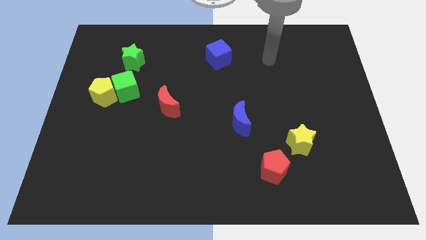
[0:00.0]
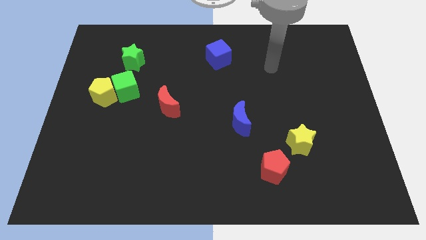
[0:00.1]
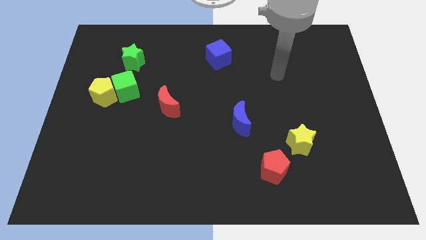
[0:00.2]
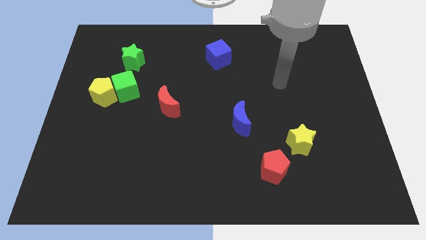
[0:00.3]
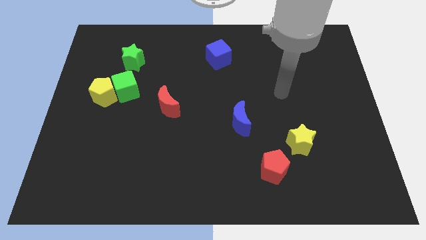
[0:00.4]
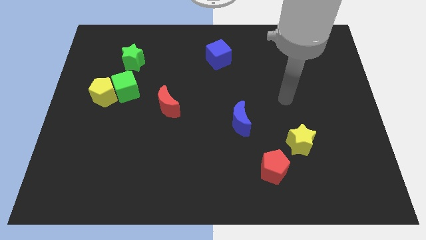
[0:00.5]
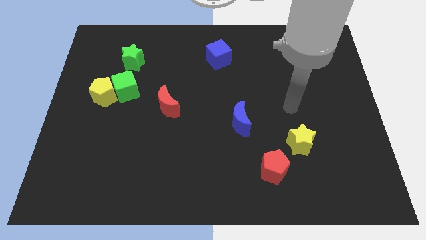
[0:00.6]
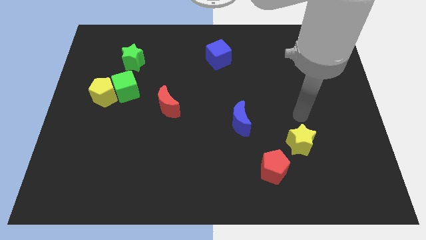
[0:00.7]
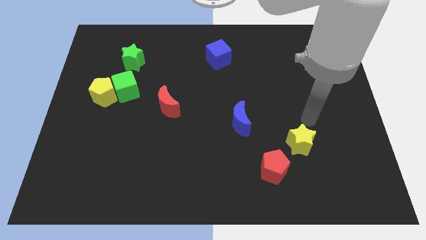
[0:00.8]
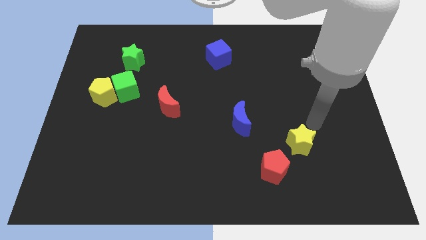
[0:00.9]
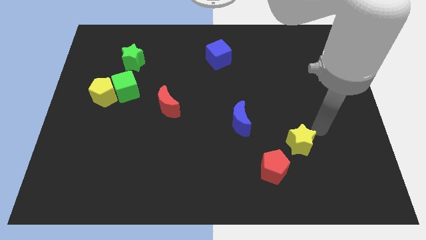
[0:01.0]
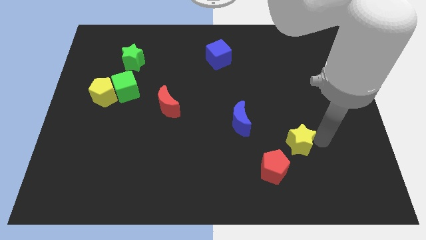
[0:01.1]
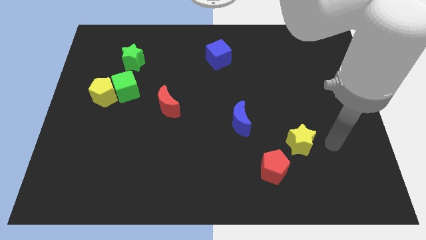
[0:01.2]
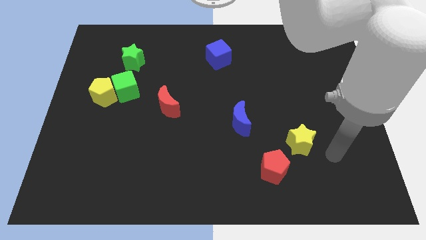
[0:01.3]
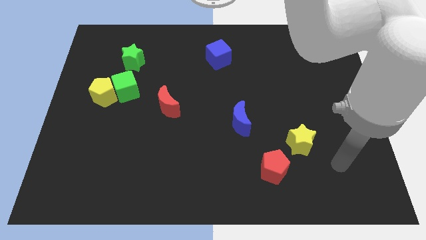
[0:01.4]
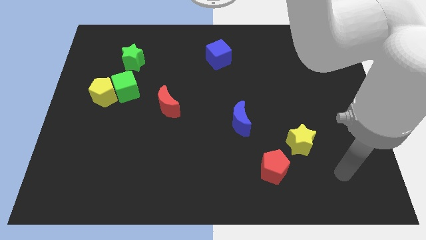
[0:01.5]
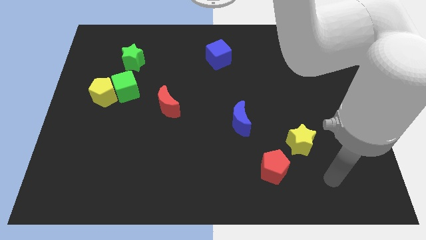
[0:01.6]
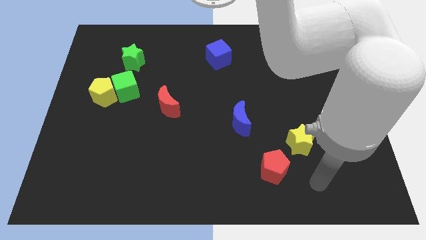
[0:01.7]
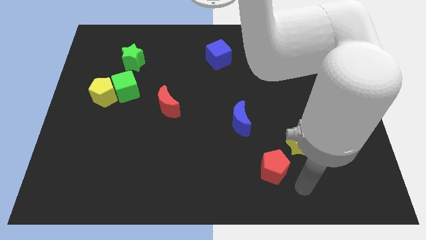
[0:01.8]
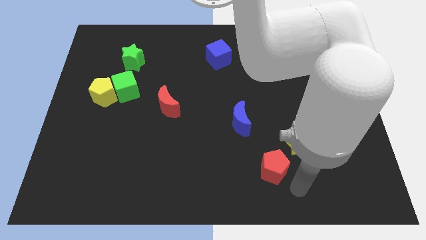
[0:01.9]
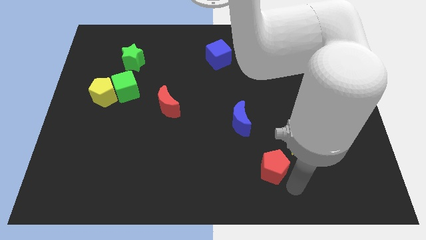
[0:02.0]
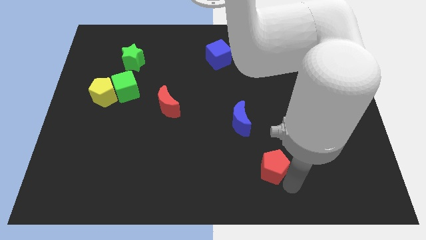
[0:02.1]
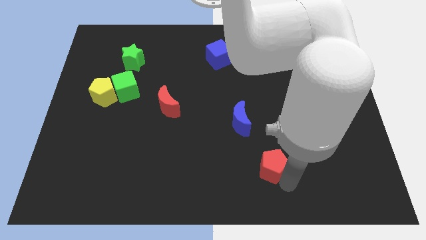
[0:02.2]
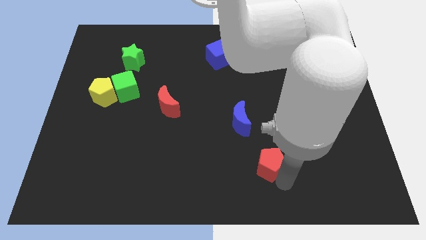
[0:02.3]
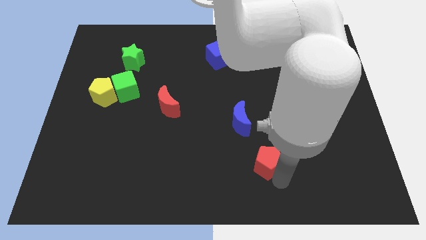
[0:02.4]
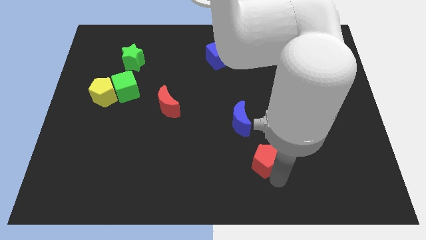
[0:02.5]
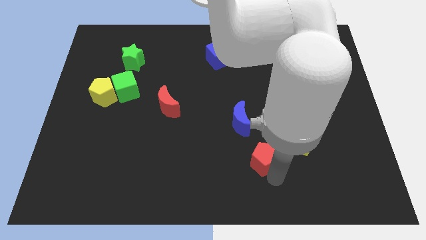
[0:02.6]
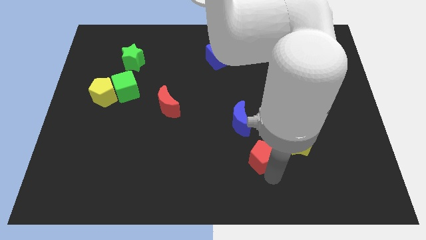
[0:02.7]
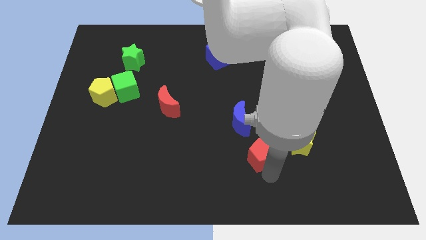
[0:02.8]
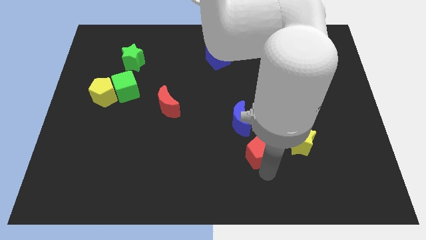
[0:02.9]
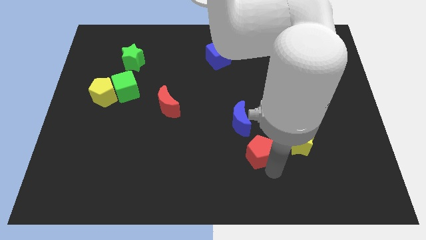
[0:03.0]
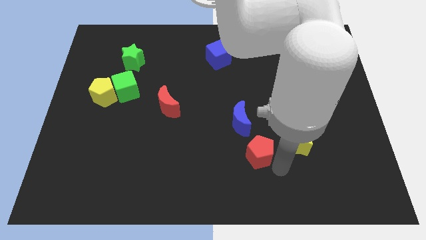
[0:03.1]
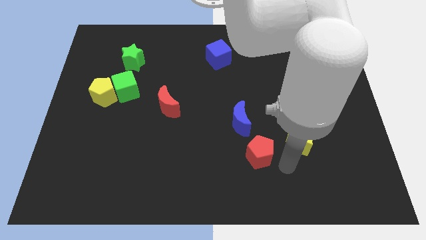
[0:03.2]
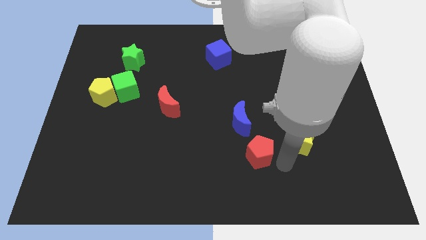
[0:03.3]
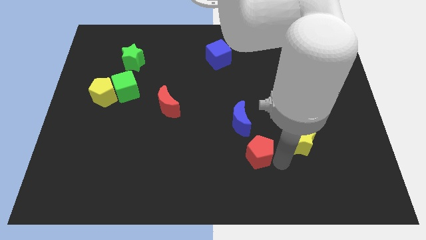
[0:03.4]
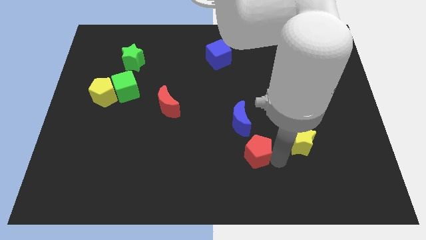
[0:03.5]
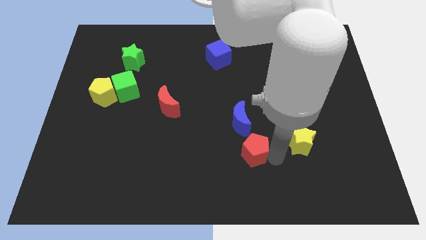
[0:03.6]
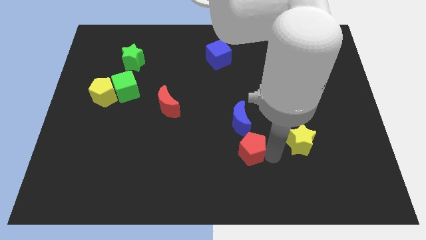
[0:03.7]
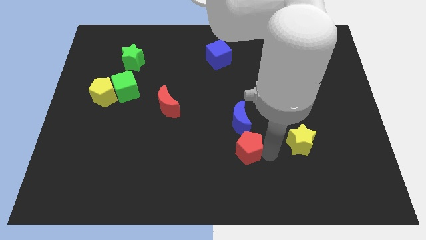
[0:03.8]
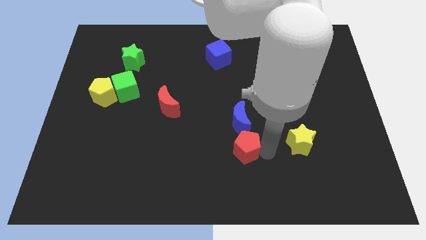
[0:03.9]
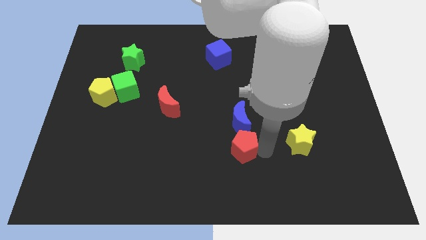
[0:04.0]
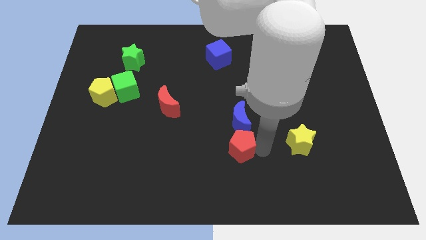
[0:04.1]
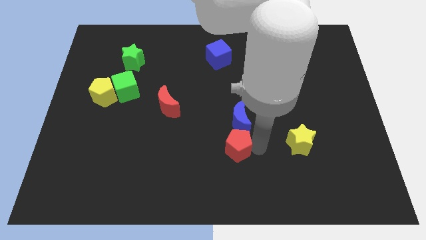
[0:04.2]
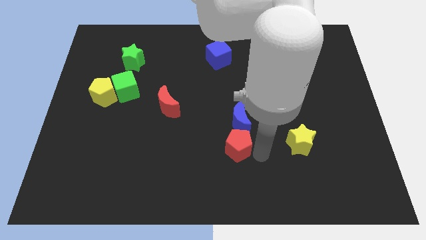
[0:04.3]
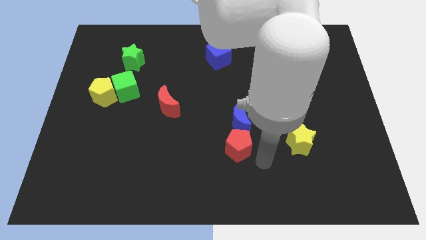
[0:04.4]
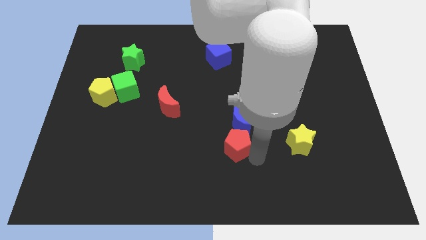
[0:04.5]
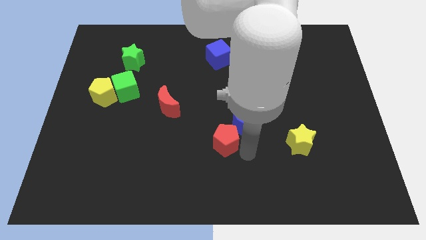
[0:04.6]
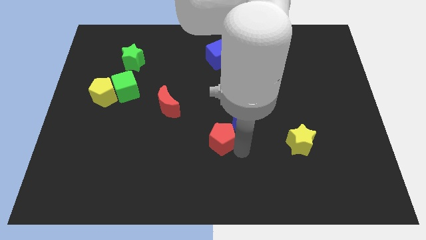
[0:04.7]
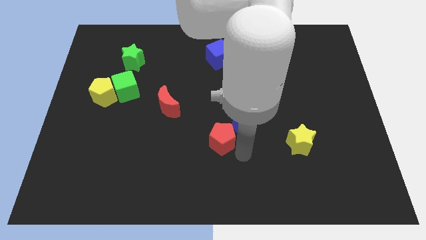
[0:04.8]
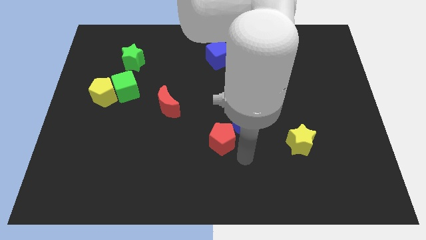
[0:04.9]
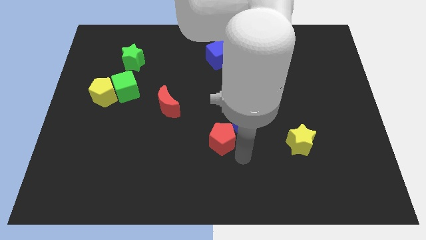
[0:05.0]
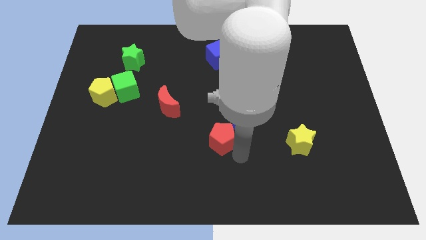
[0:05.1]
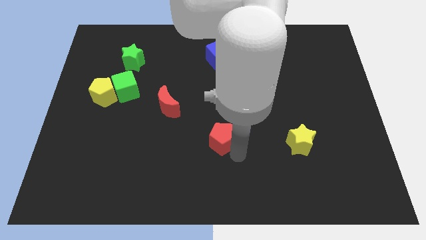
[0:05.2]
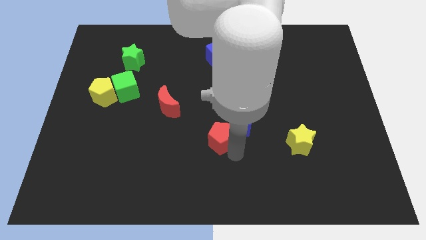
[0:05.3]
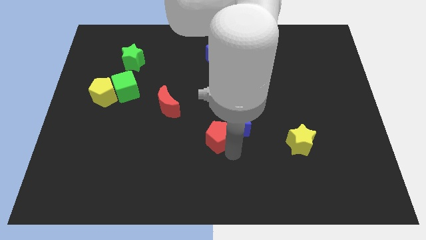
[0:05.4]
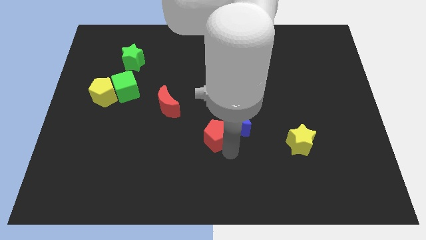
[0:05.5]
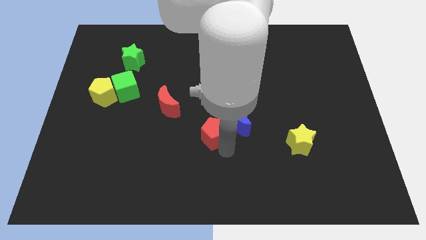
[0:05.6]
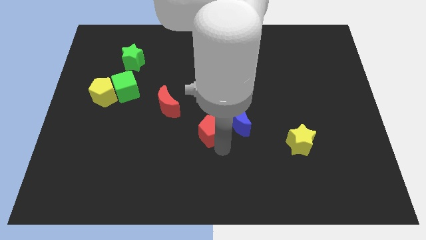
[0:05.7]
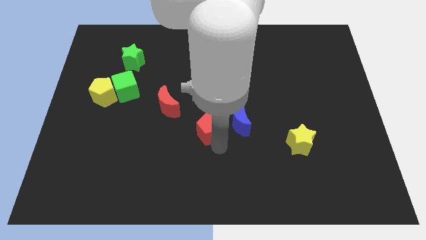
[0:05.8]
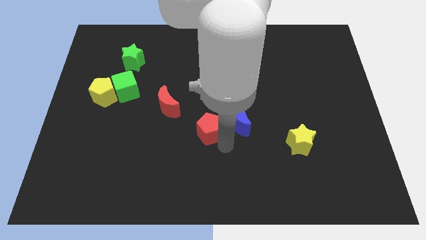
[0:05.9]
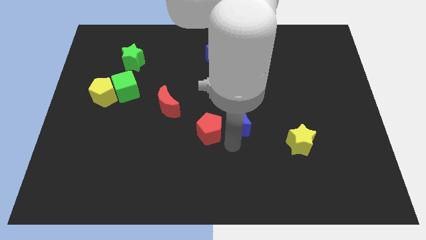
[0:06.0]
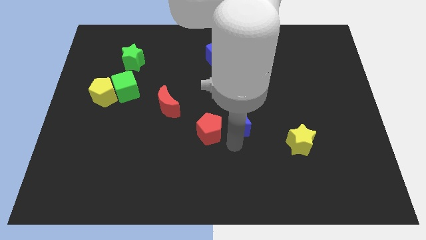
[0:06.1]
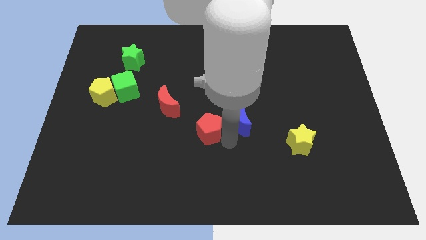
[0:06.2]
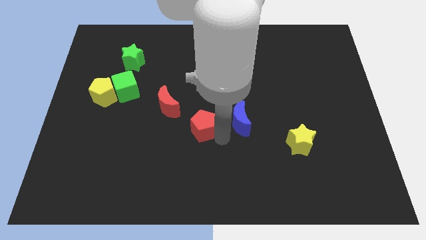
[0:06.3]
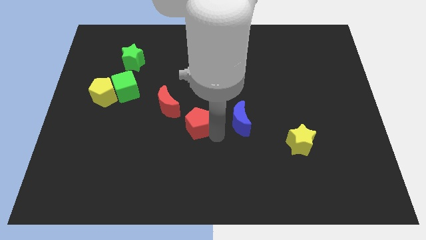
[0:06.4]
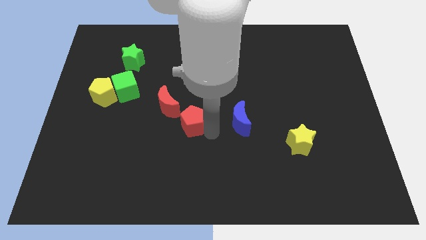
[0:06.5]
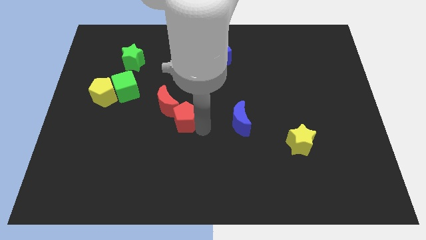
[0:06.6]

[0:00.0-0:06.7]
move the red pentagon next to the red moon

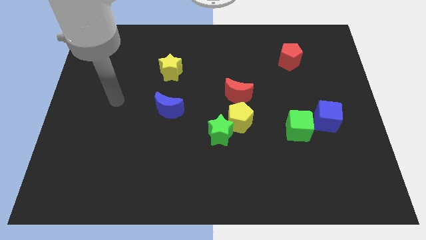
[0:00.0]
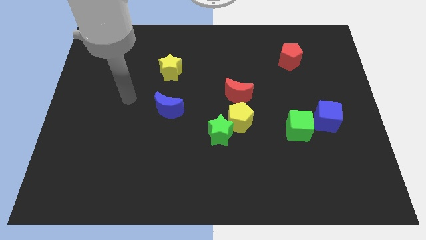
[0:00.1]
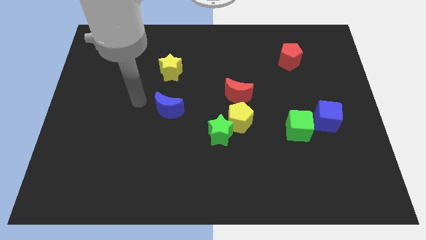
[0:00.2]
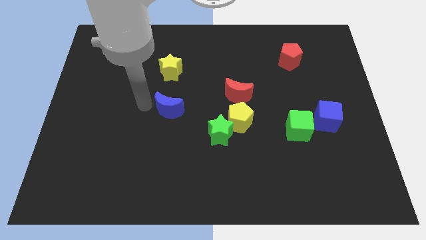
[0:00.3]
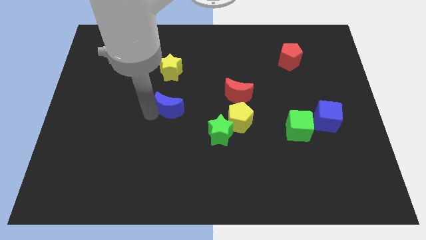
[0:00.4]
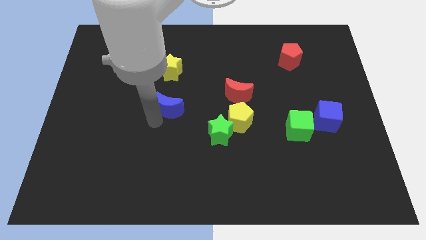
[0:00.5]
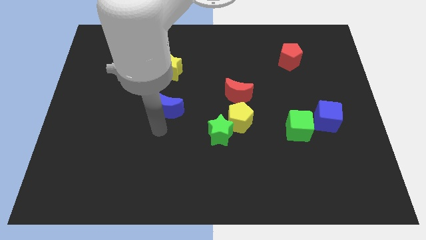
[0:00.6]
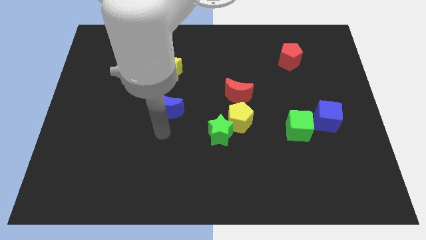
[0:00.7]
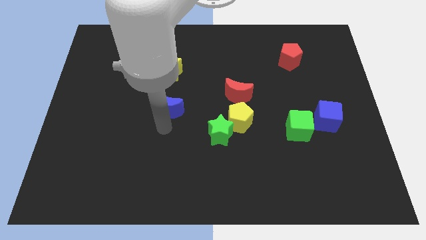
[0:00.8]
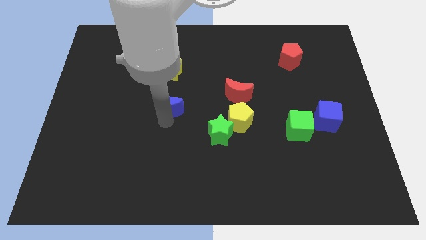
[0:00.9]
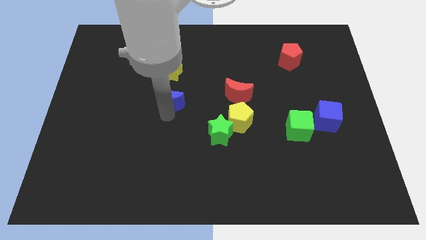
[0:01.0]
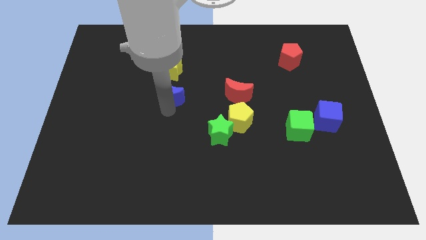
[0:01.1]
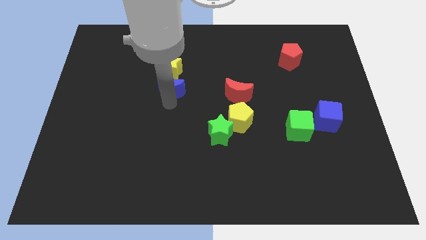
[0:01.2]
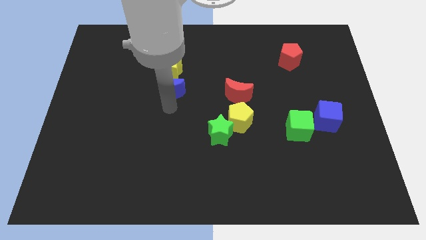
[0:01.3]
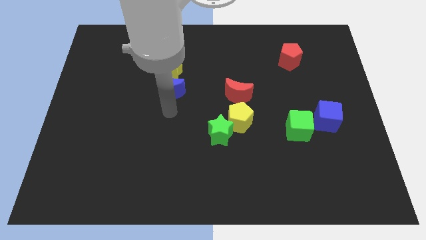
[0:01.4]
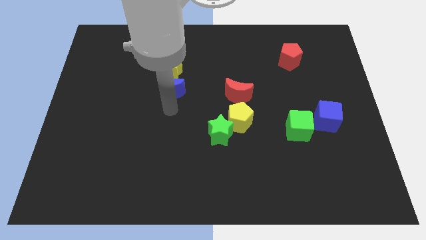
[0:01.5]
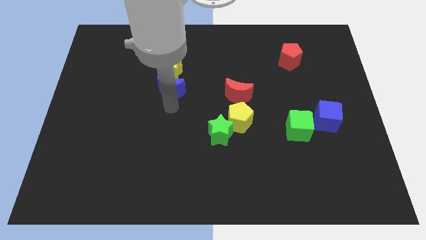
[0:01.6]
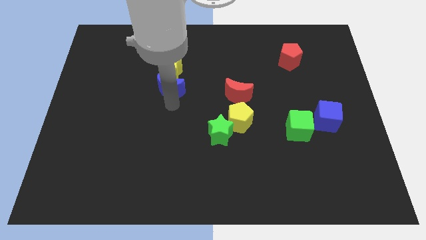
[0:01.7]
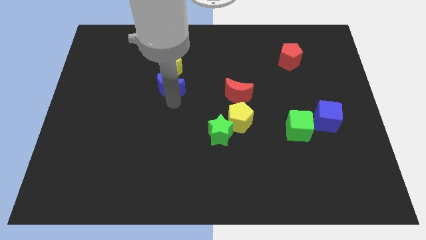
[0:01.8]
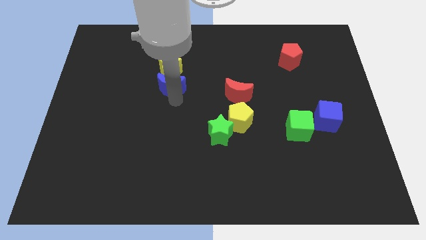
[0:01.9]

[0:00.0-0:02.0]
put the blue moon towards the yellow star
